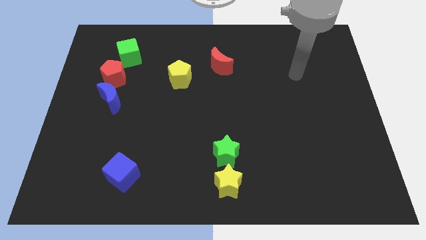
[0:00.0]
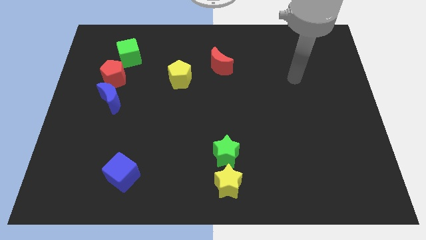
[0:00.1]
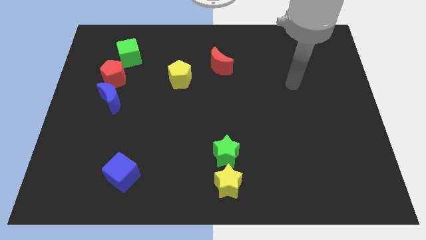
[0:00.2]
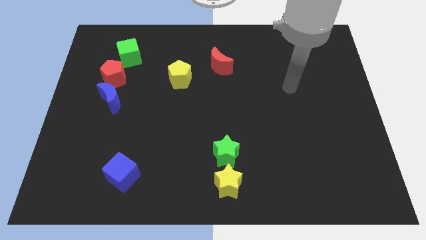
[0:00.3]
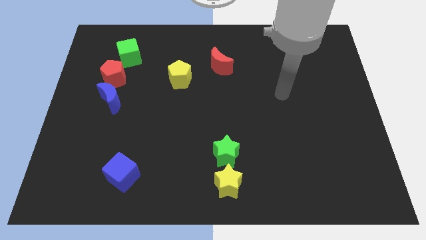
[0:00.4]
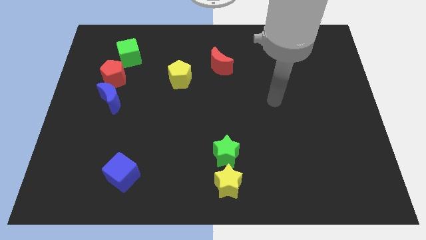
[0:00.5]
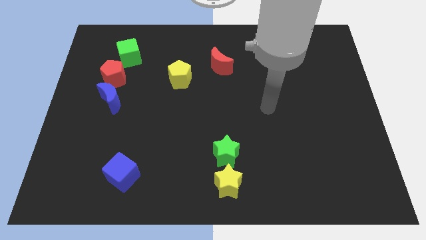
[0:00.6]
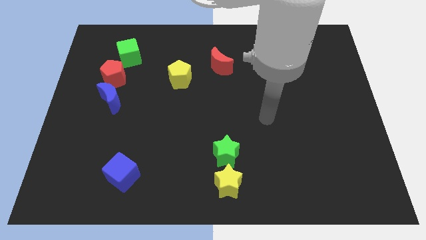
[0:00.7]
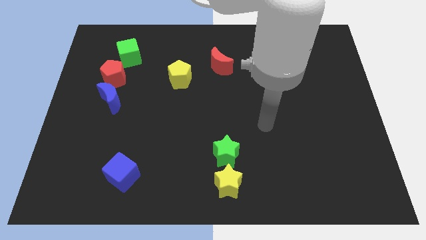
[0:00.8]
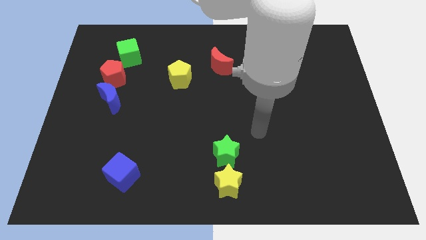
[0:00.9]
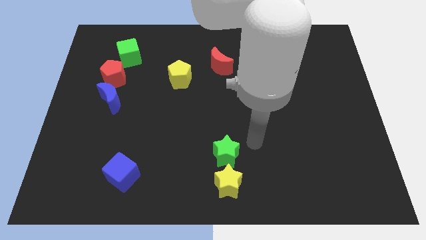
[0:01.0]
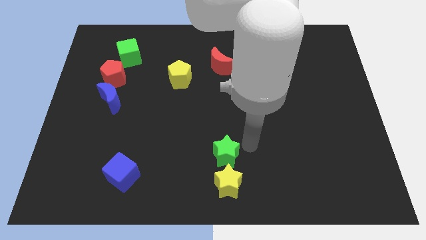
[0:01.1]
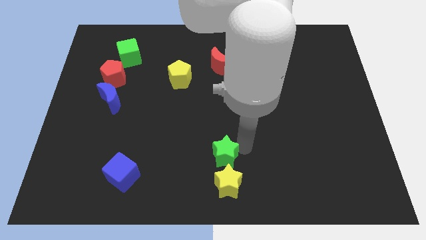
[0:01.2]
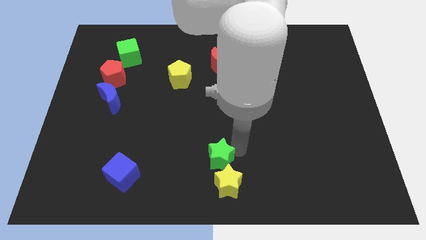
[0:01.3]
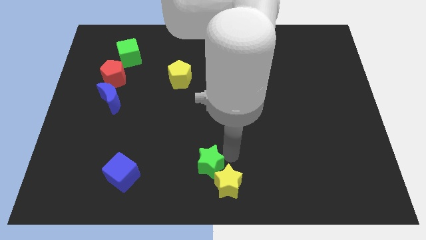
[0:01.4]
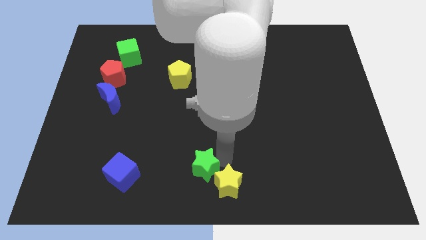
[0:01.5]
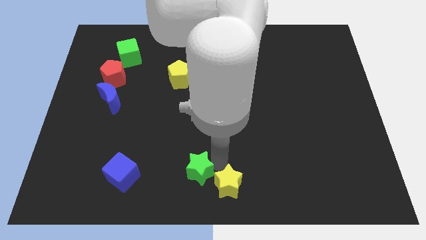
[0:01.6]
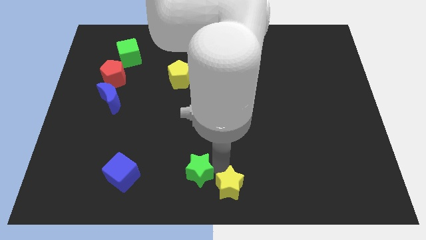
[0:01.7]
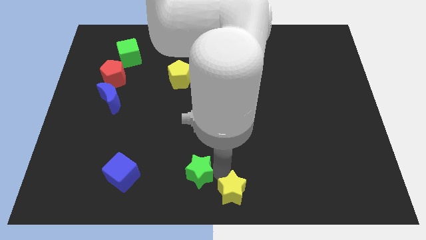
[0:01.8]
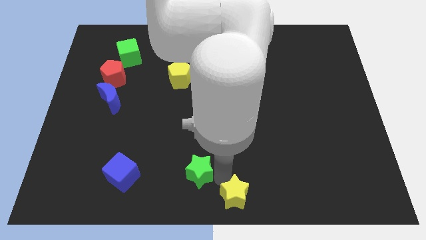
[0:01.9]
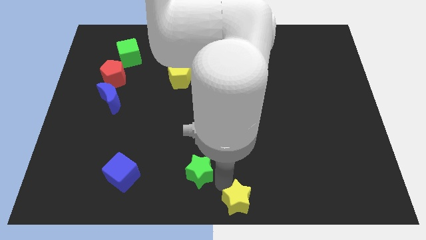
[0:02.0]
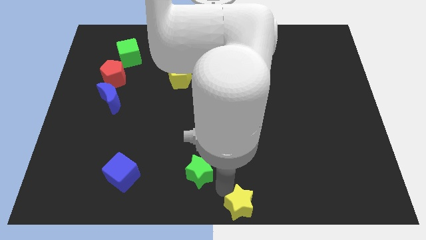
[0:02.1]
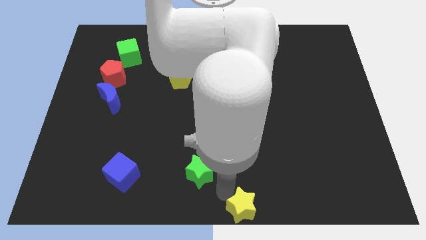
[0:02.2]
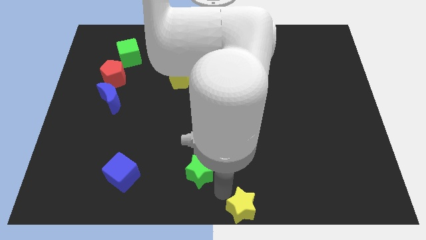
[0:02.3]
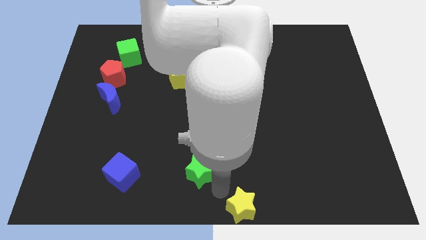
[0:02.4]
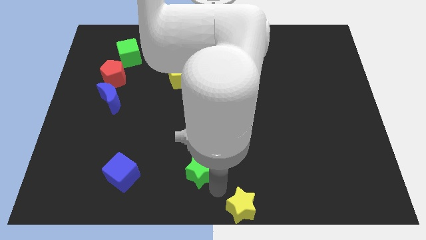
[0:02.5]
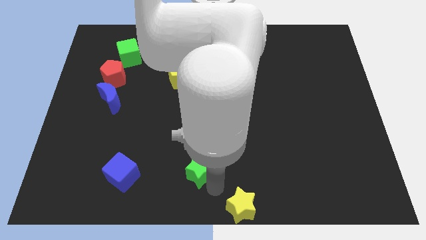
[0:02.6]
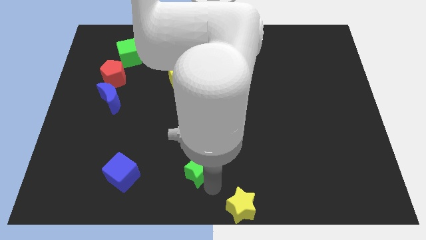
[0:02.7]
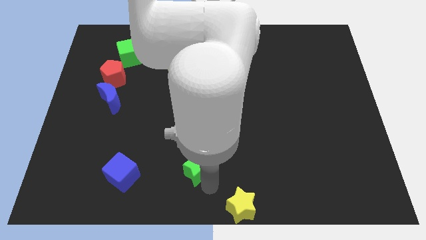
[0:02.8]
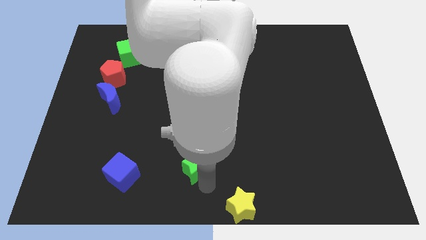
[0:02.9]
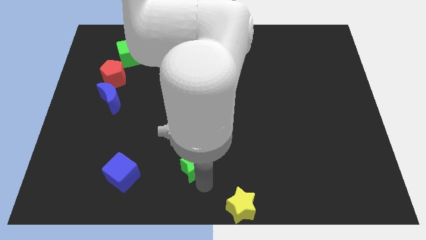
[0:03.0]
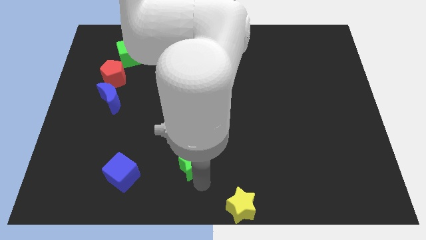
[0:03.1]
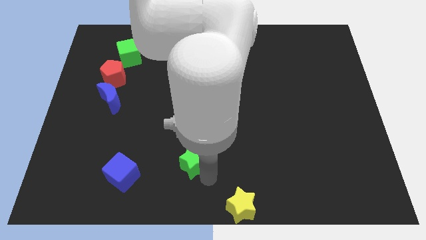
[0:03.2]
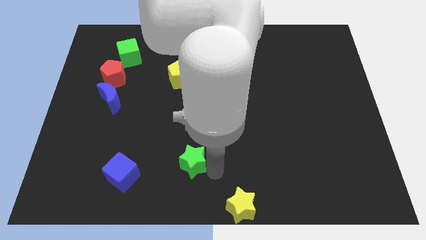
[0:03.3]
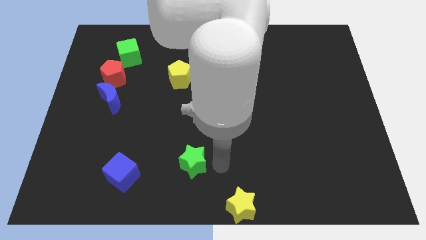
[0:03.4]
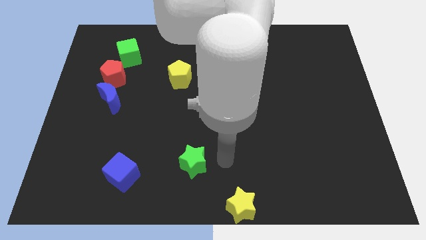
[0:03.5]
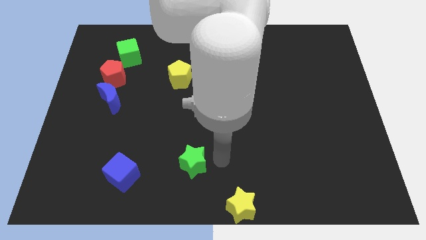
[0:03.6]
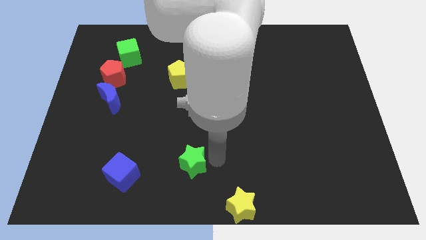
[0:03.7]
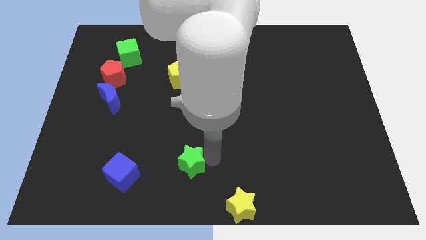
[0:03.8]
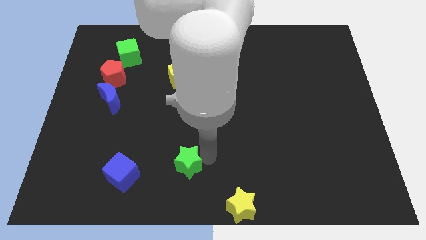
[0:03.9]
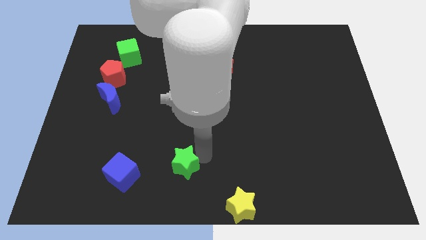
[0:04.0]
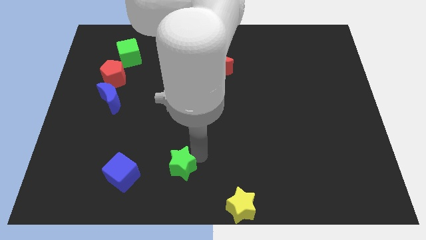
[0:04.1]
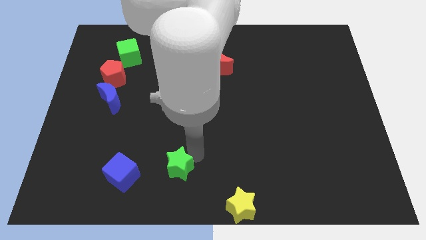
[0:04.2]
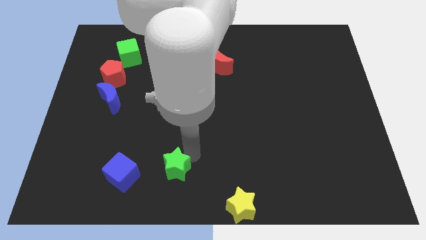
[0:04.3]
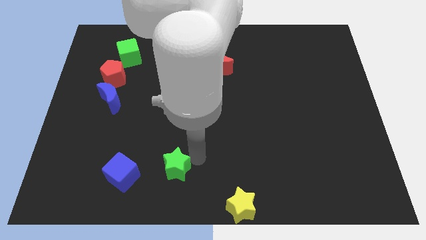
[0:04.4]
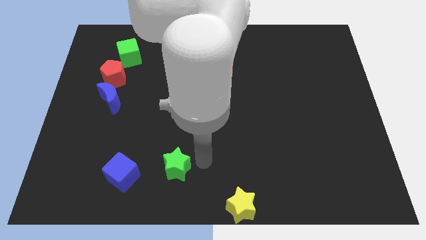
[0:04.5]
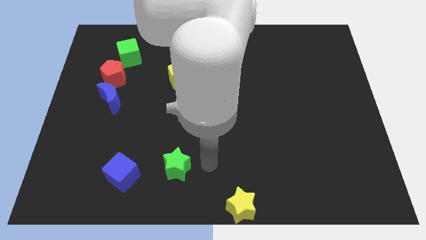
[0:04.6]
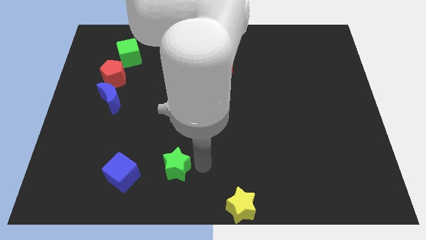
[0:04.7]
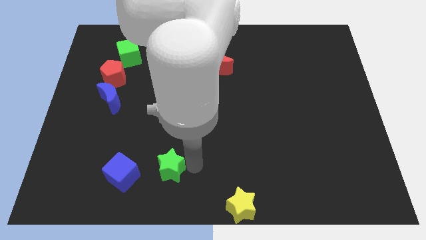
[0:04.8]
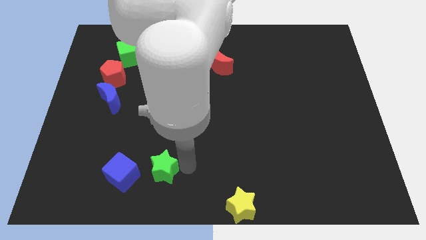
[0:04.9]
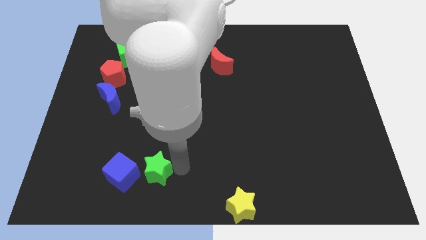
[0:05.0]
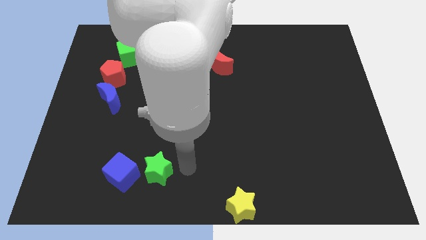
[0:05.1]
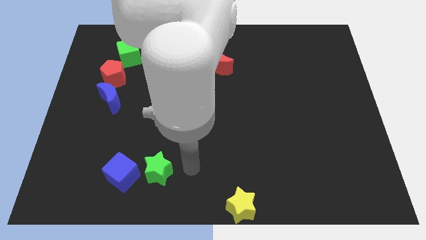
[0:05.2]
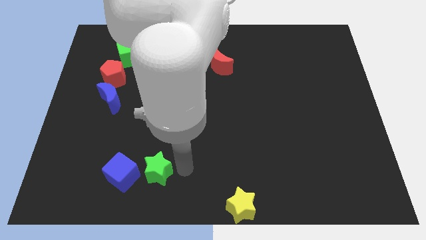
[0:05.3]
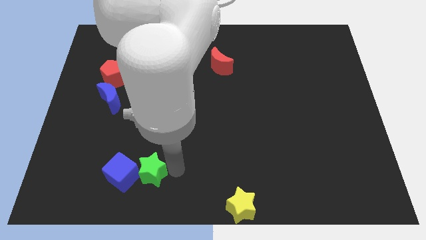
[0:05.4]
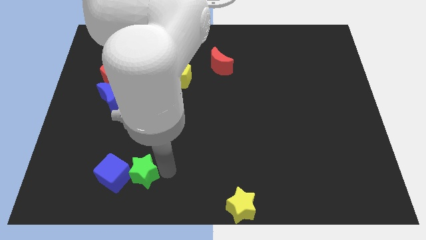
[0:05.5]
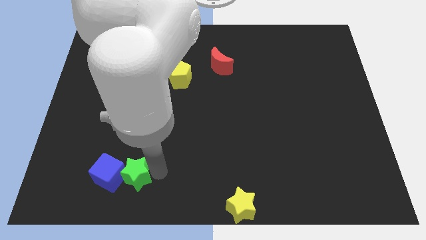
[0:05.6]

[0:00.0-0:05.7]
put the green star towards the blue cube

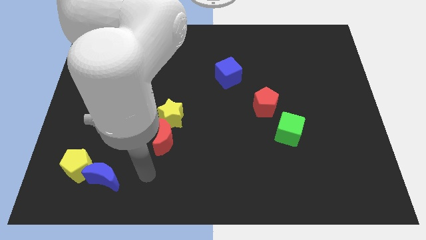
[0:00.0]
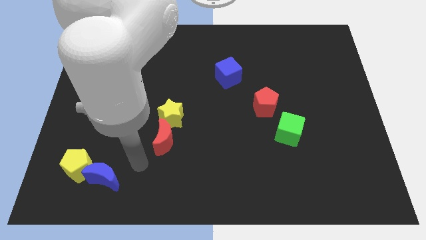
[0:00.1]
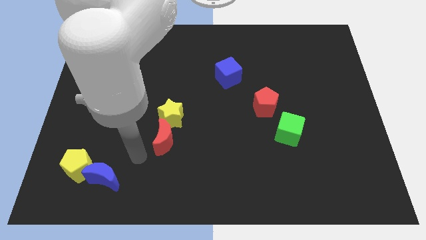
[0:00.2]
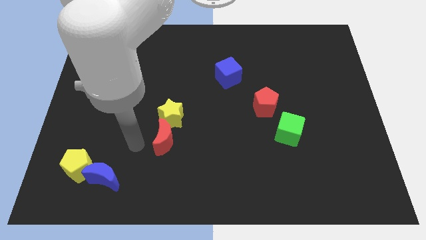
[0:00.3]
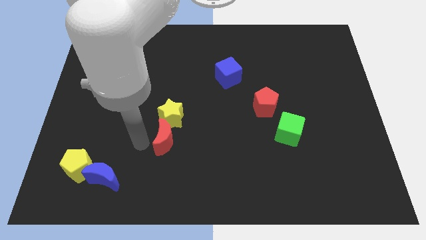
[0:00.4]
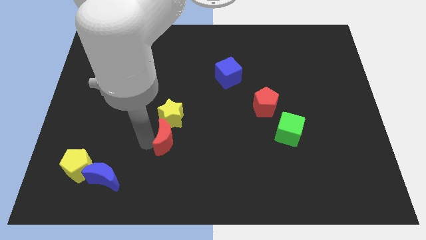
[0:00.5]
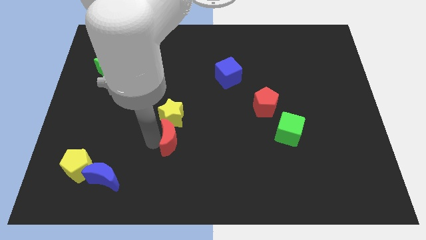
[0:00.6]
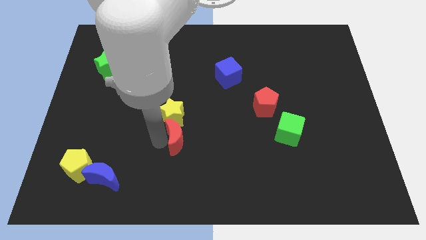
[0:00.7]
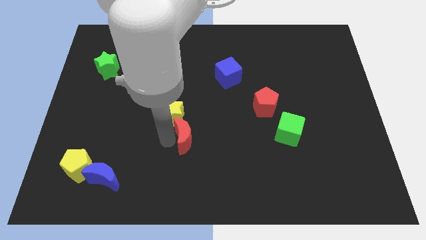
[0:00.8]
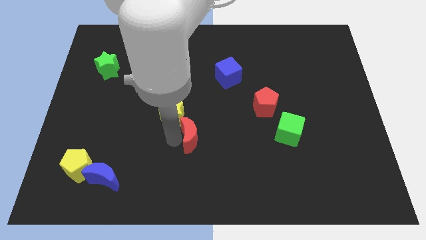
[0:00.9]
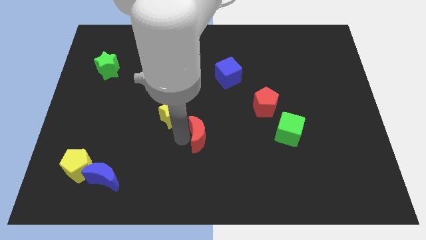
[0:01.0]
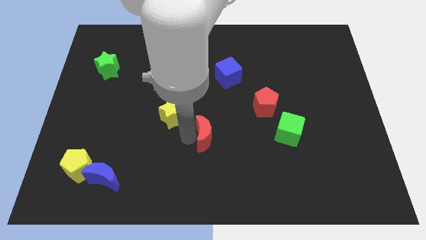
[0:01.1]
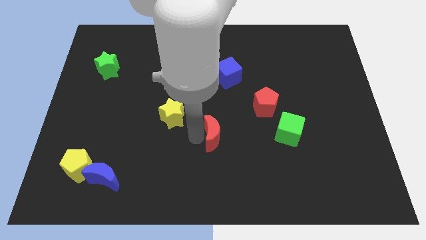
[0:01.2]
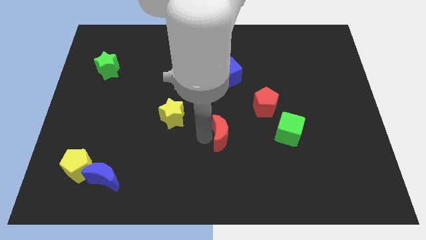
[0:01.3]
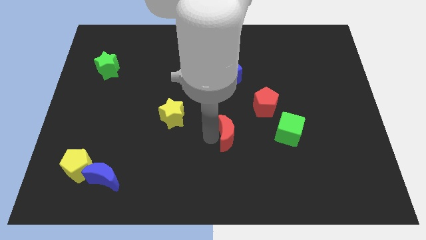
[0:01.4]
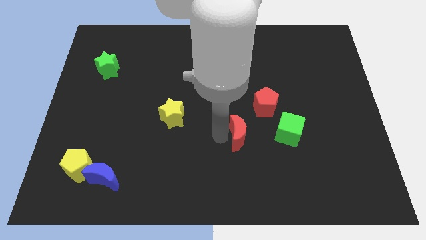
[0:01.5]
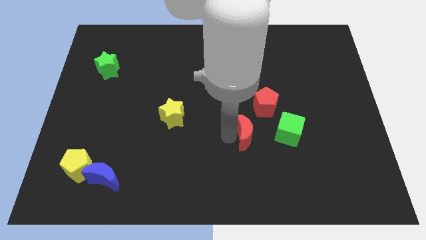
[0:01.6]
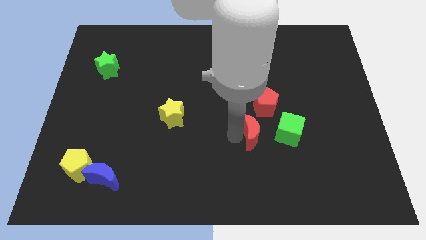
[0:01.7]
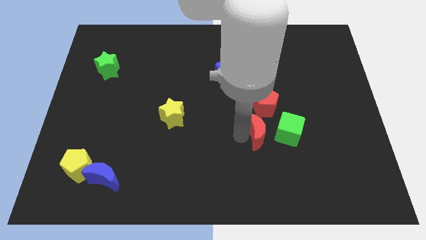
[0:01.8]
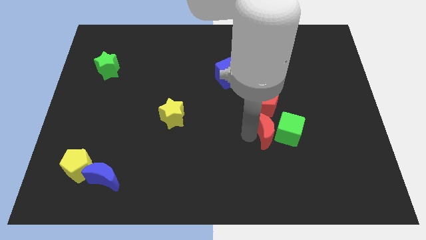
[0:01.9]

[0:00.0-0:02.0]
move the red moon next to the green cube

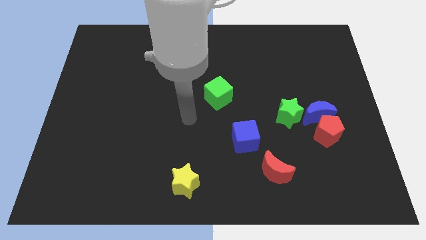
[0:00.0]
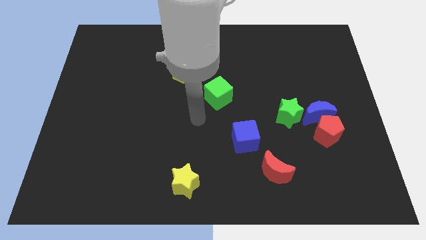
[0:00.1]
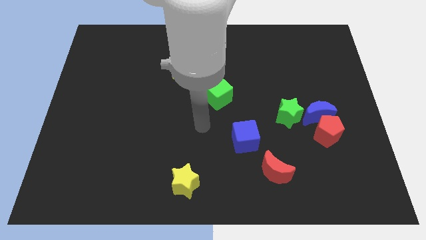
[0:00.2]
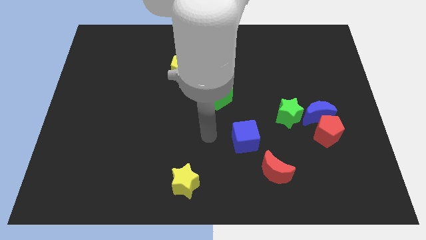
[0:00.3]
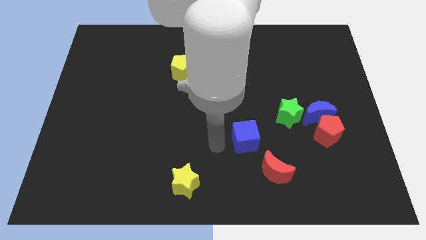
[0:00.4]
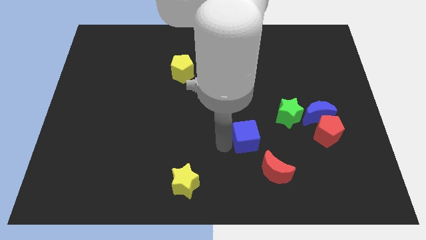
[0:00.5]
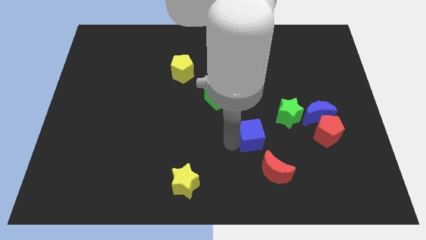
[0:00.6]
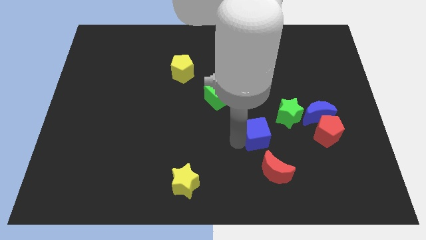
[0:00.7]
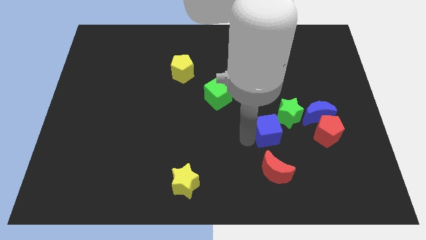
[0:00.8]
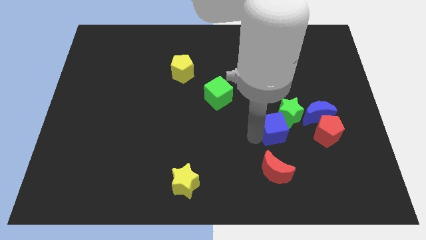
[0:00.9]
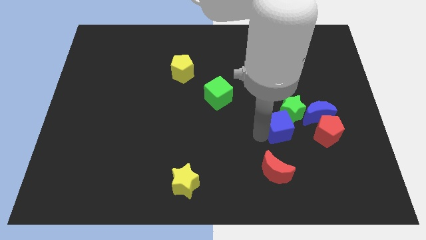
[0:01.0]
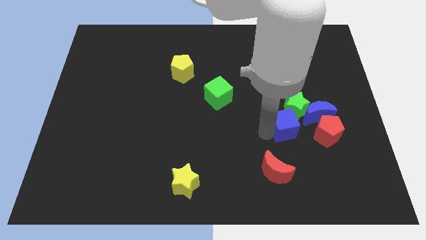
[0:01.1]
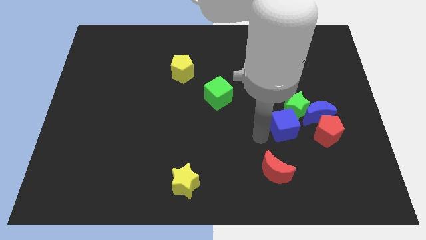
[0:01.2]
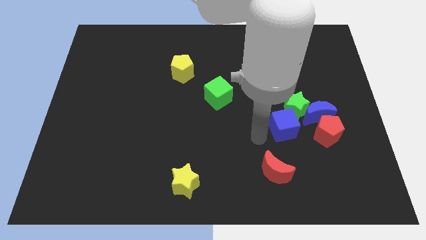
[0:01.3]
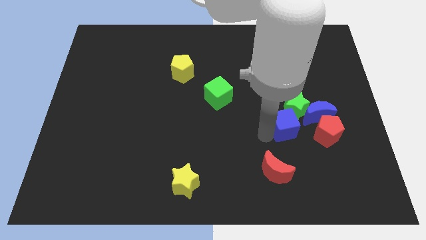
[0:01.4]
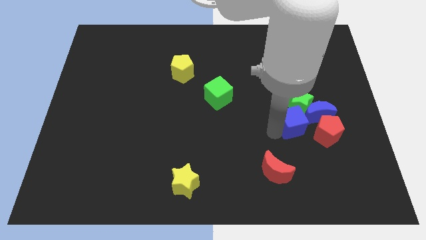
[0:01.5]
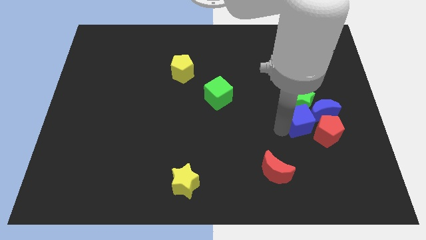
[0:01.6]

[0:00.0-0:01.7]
slide the blue cube close to the blue moon
